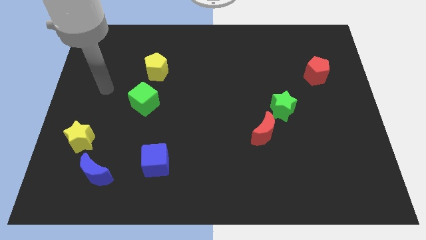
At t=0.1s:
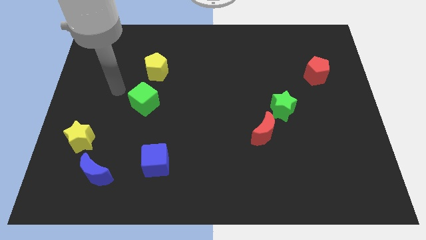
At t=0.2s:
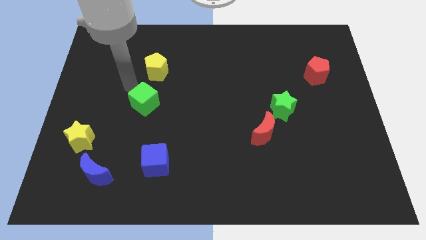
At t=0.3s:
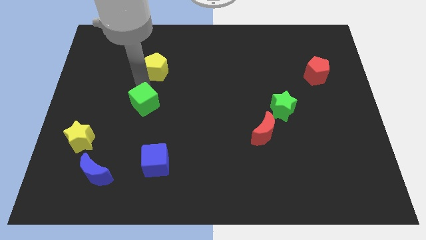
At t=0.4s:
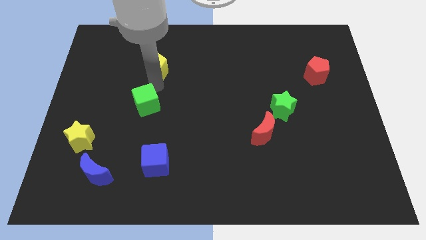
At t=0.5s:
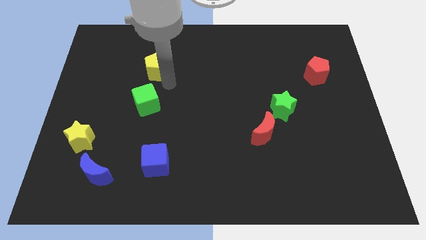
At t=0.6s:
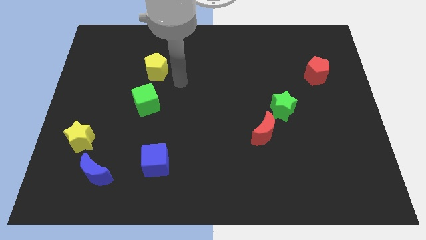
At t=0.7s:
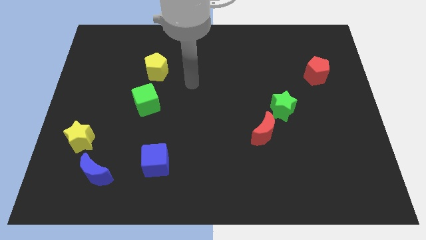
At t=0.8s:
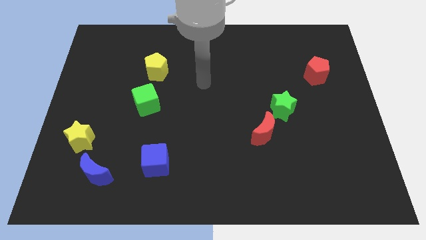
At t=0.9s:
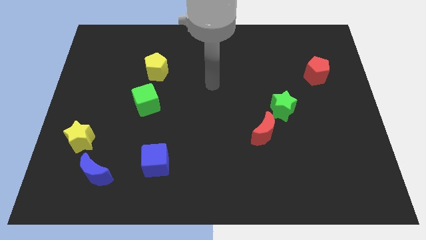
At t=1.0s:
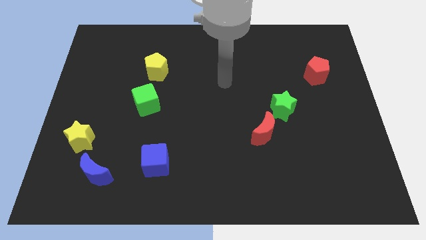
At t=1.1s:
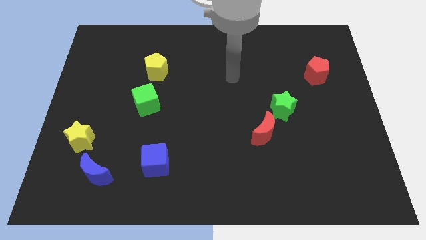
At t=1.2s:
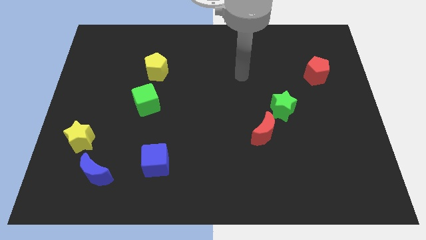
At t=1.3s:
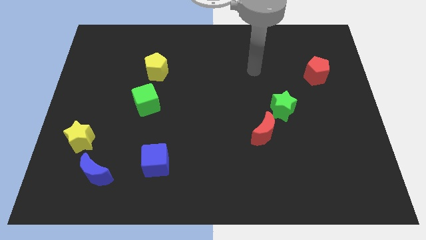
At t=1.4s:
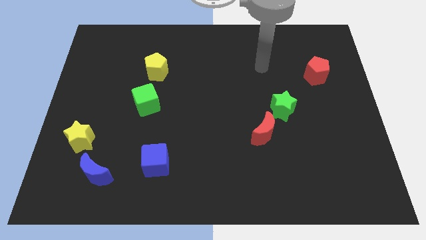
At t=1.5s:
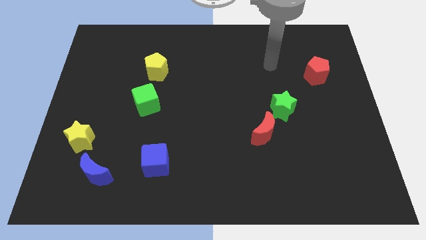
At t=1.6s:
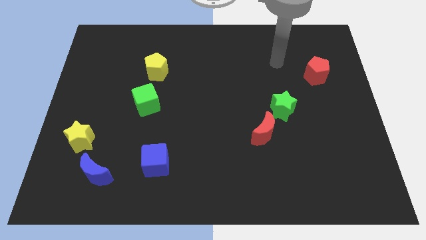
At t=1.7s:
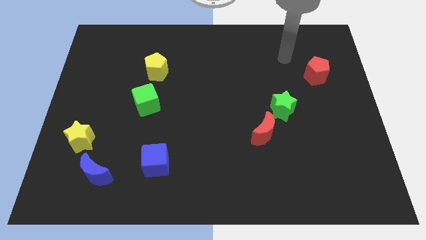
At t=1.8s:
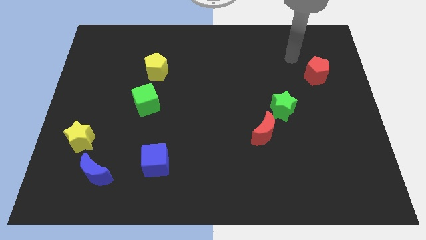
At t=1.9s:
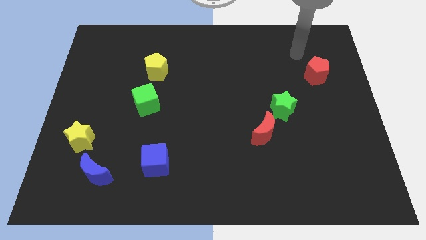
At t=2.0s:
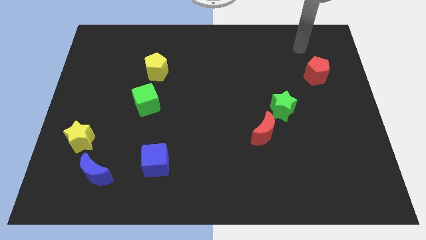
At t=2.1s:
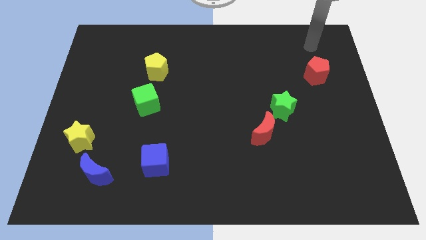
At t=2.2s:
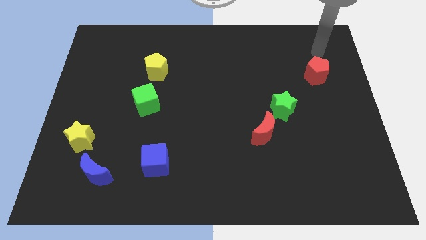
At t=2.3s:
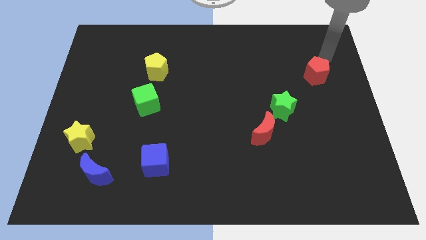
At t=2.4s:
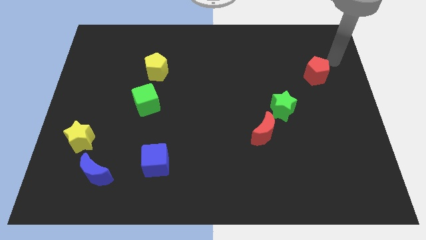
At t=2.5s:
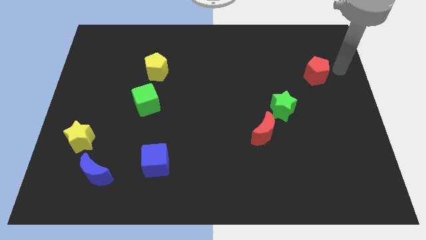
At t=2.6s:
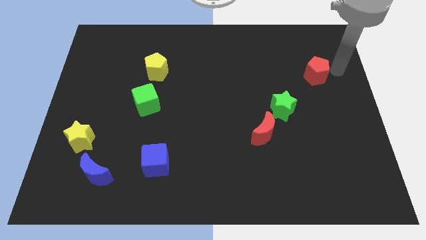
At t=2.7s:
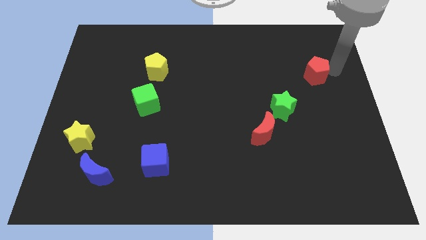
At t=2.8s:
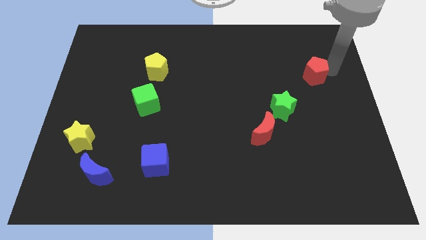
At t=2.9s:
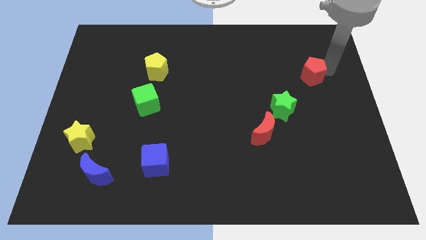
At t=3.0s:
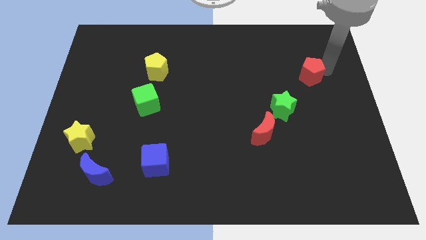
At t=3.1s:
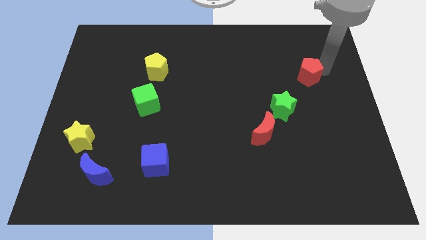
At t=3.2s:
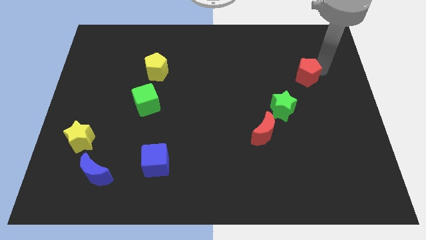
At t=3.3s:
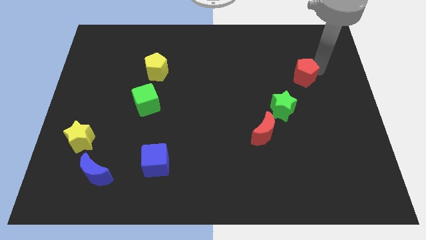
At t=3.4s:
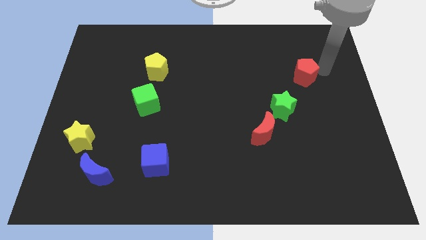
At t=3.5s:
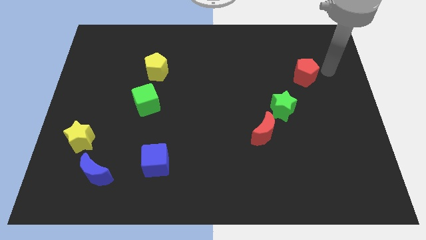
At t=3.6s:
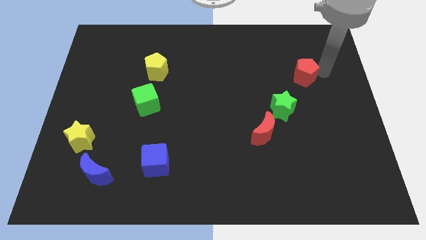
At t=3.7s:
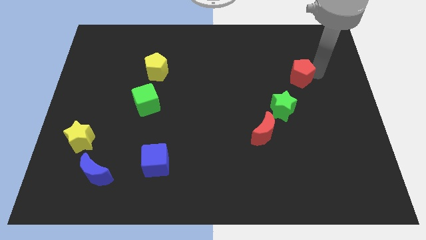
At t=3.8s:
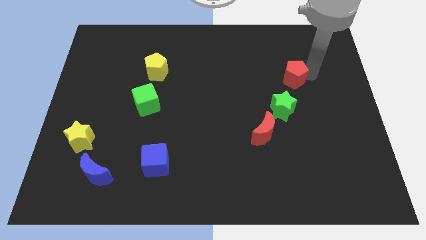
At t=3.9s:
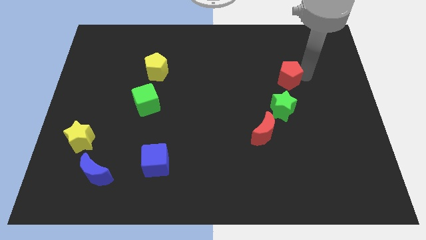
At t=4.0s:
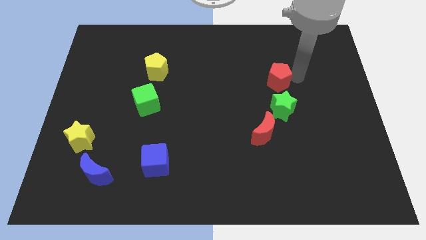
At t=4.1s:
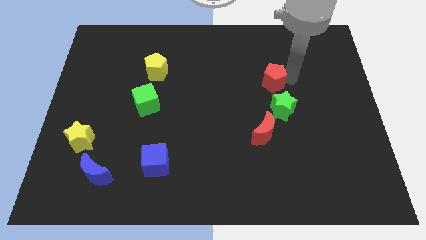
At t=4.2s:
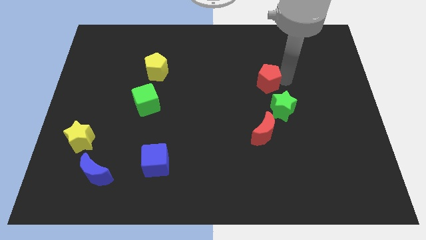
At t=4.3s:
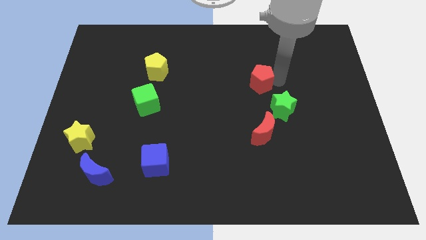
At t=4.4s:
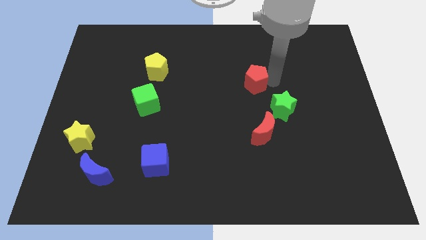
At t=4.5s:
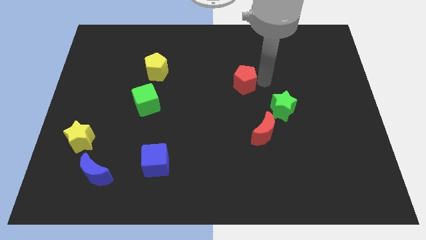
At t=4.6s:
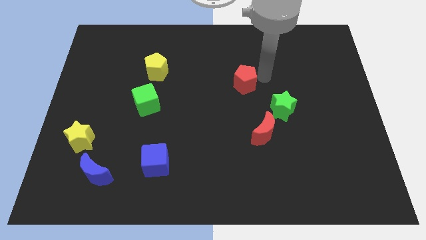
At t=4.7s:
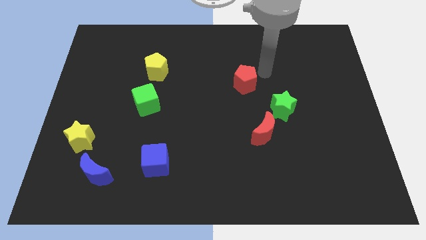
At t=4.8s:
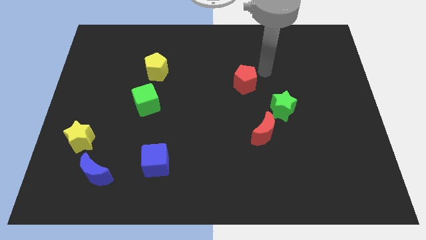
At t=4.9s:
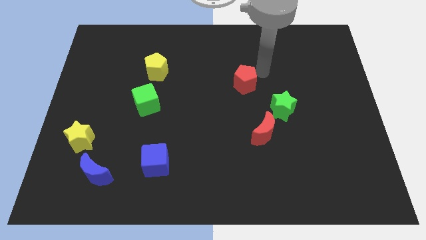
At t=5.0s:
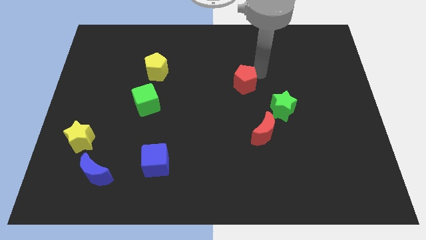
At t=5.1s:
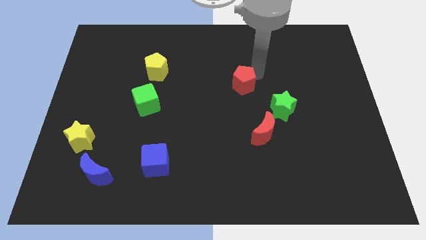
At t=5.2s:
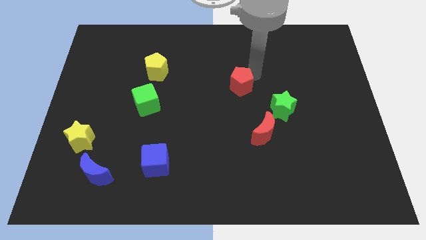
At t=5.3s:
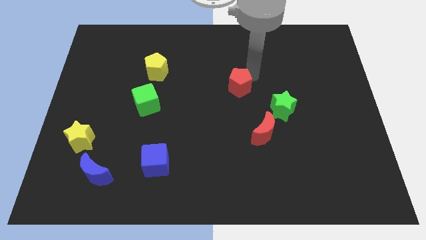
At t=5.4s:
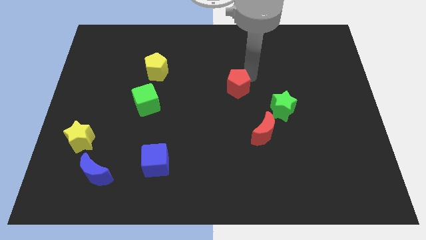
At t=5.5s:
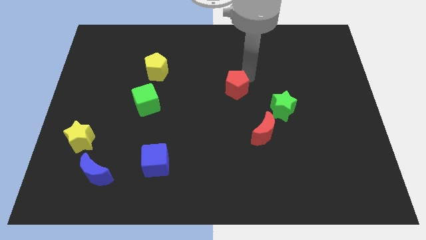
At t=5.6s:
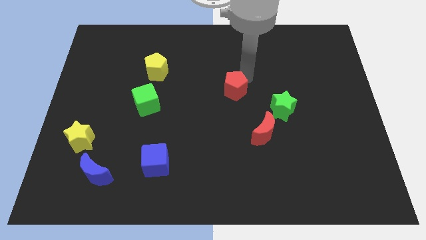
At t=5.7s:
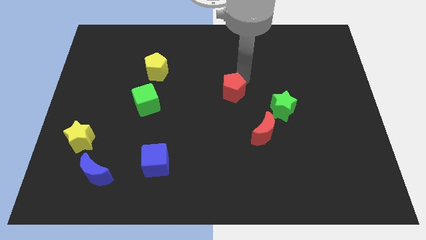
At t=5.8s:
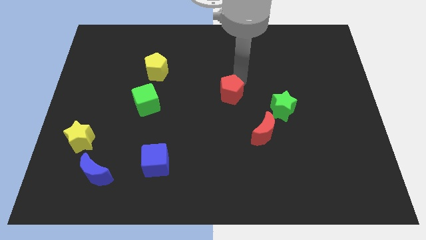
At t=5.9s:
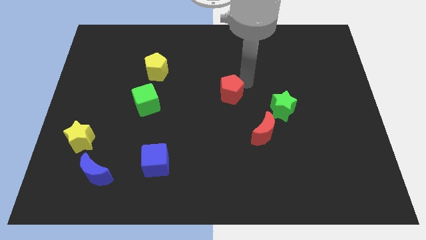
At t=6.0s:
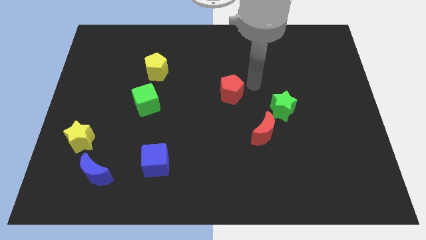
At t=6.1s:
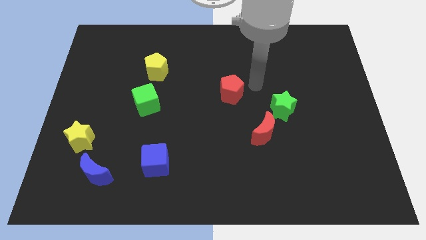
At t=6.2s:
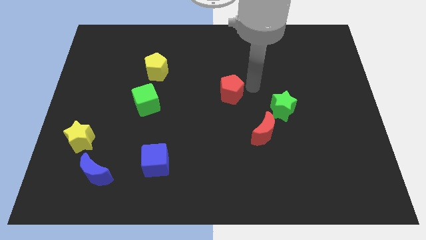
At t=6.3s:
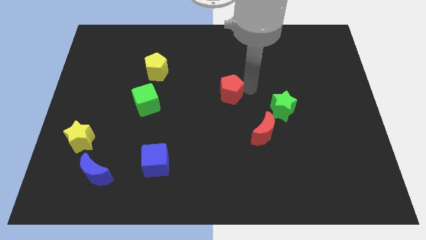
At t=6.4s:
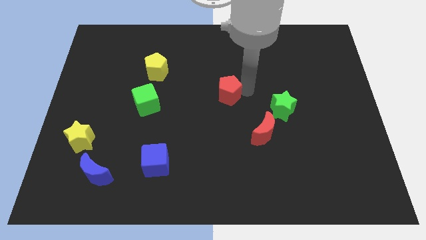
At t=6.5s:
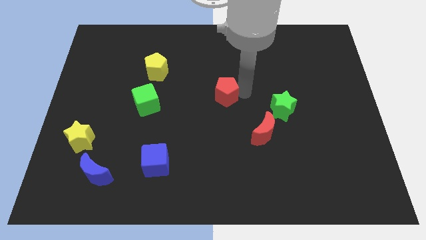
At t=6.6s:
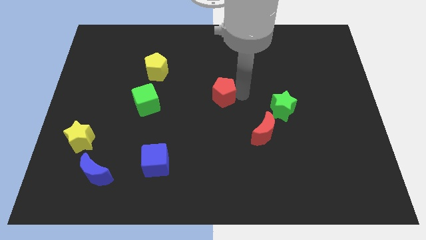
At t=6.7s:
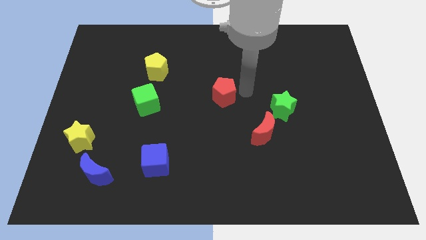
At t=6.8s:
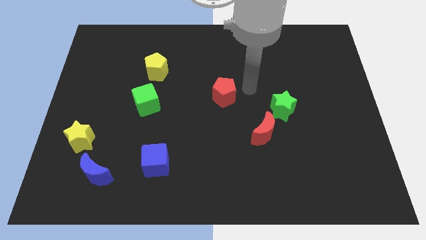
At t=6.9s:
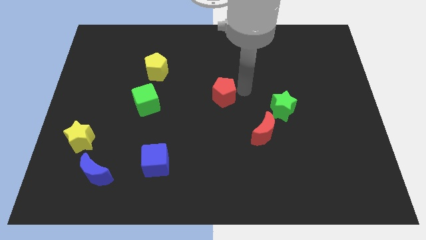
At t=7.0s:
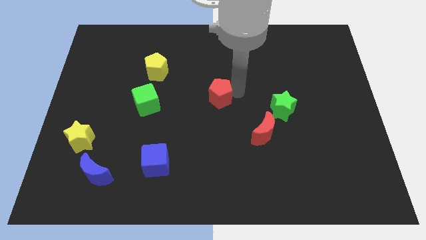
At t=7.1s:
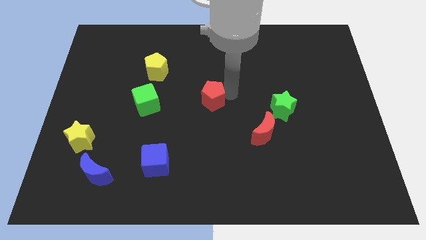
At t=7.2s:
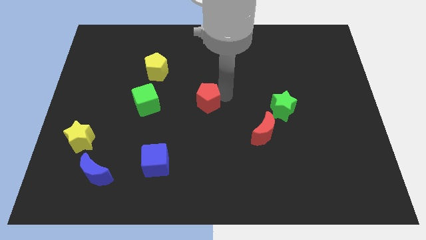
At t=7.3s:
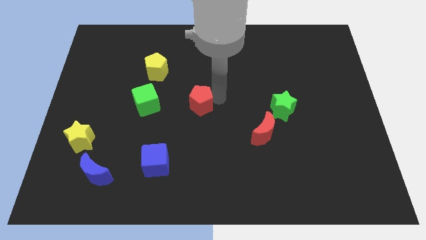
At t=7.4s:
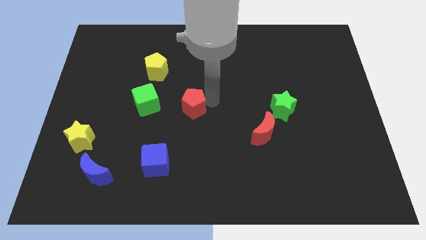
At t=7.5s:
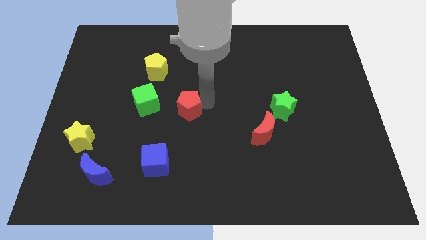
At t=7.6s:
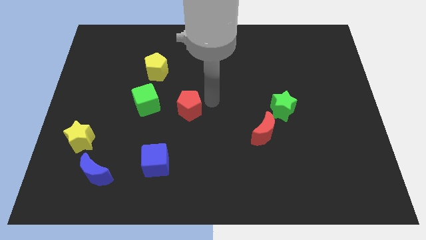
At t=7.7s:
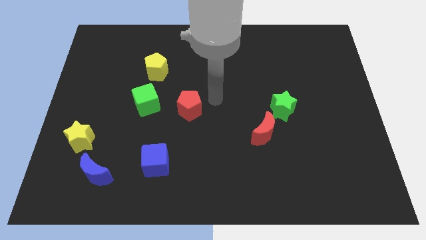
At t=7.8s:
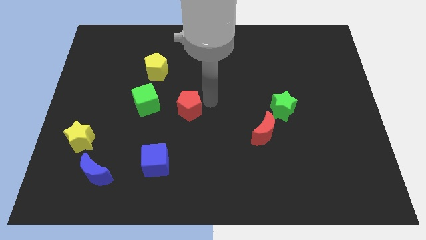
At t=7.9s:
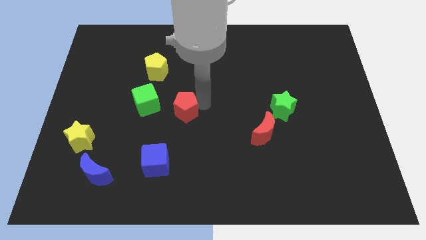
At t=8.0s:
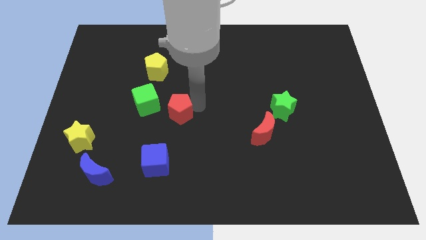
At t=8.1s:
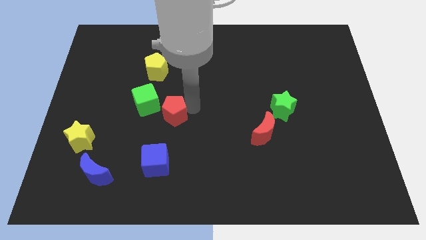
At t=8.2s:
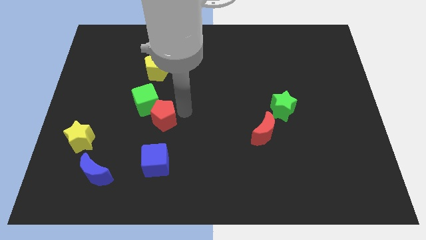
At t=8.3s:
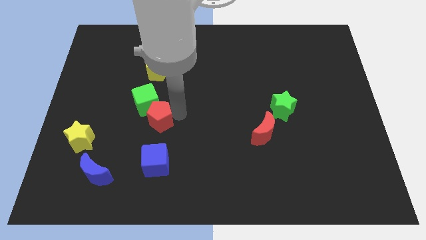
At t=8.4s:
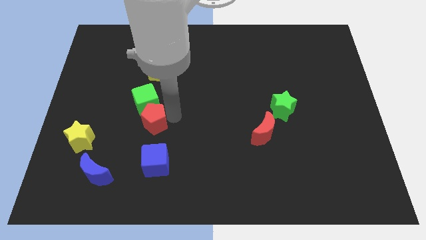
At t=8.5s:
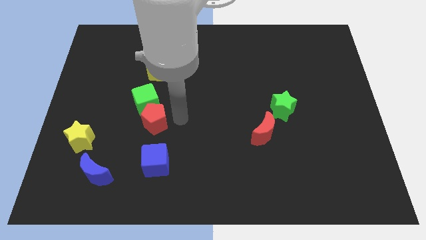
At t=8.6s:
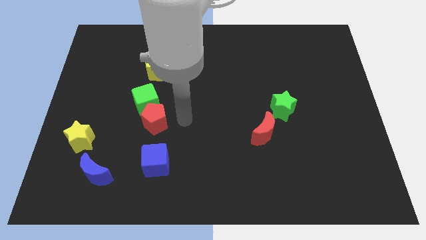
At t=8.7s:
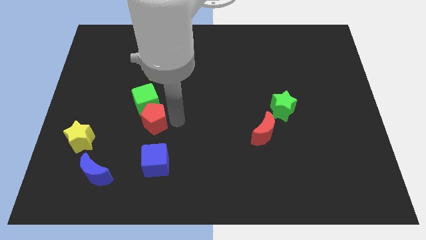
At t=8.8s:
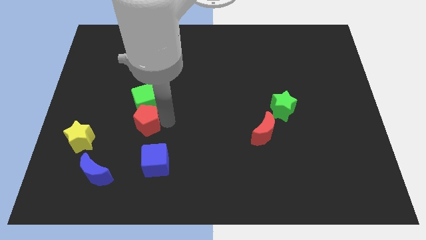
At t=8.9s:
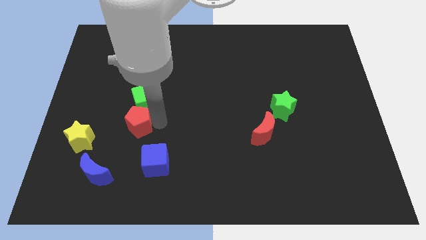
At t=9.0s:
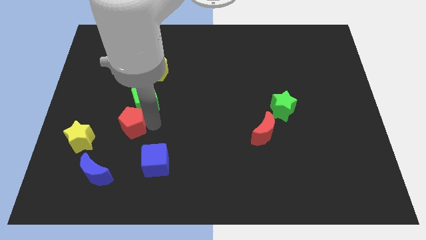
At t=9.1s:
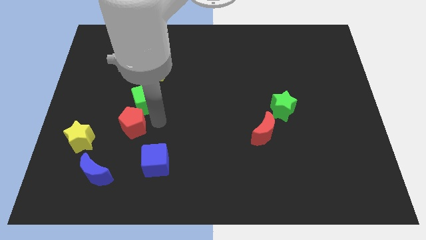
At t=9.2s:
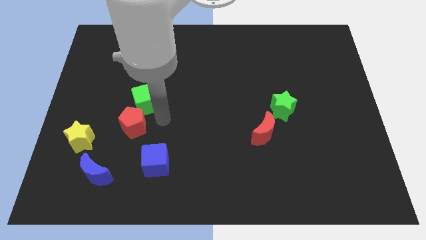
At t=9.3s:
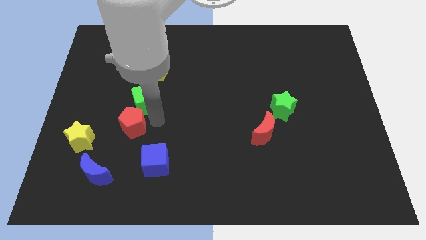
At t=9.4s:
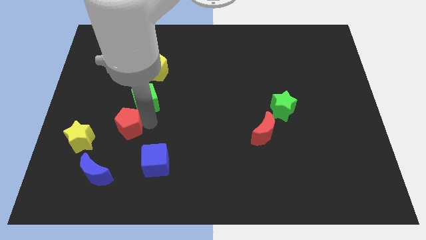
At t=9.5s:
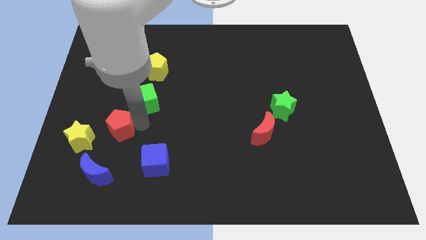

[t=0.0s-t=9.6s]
move the red pentagon above the blue moon
